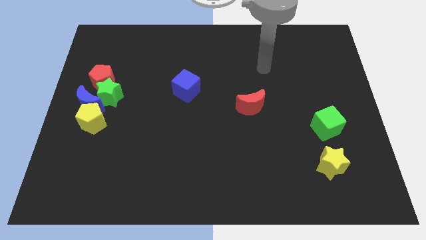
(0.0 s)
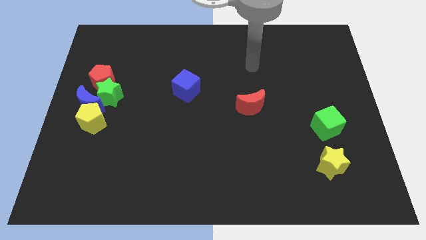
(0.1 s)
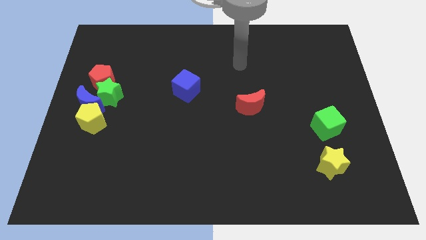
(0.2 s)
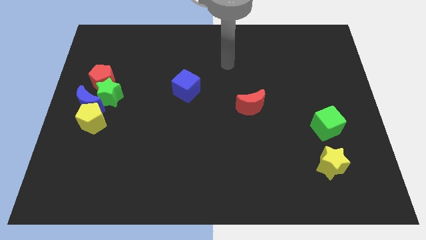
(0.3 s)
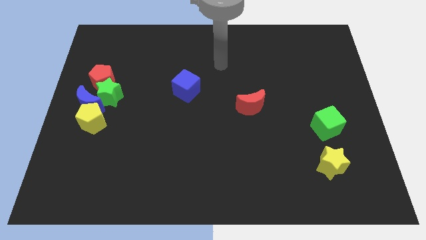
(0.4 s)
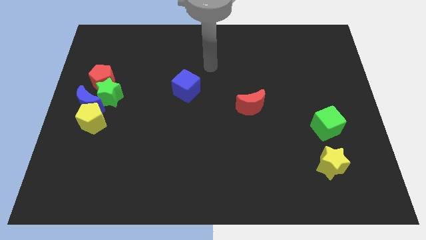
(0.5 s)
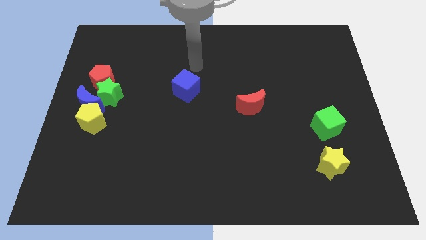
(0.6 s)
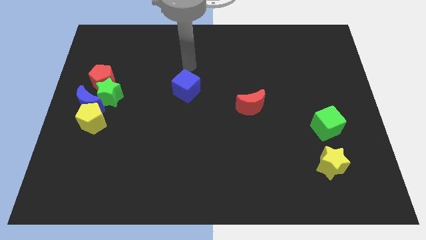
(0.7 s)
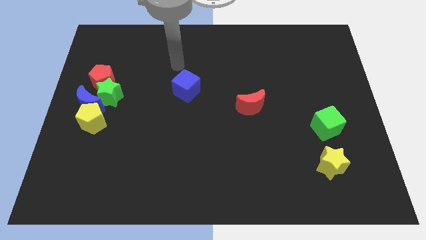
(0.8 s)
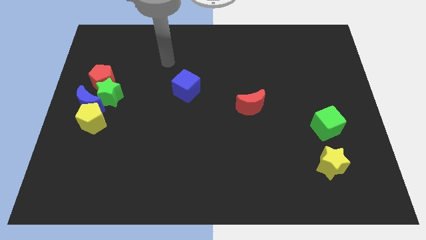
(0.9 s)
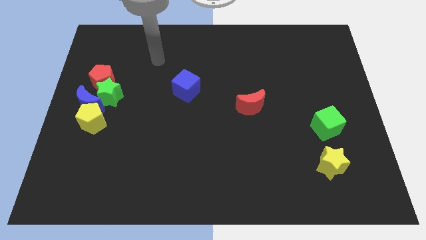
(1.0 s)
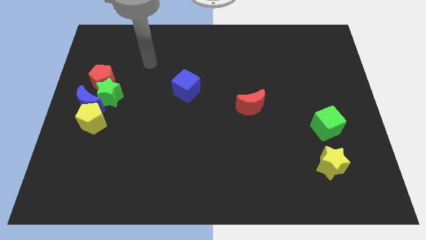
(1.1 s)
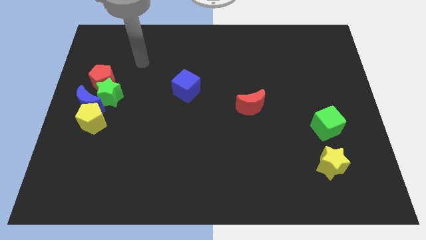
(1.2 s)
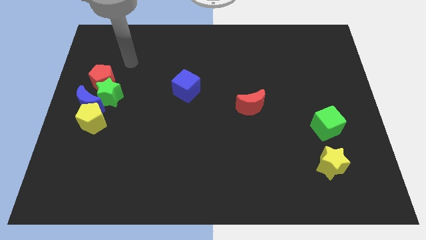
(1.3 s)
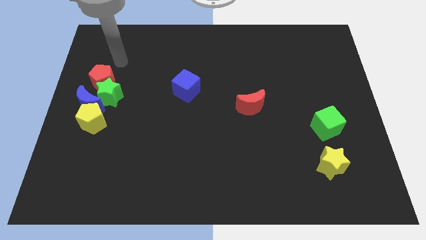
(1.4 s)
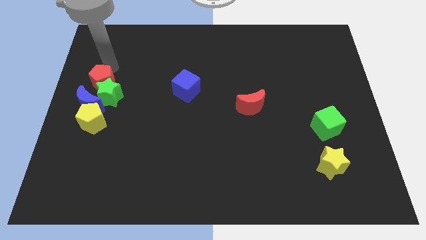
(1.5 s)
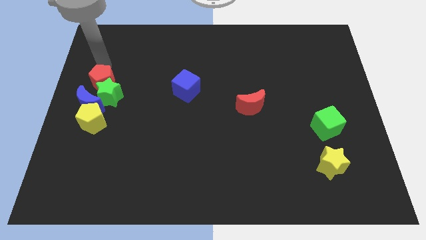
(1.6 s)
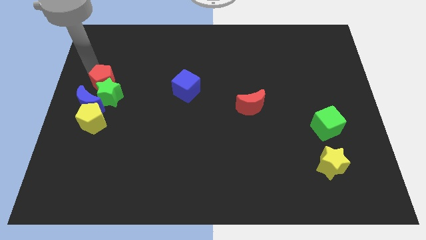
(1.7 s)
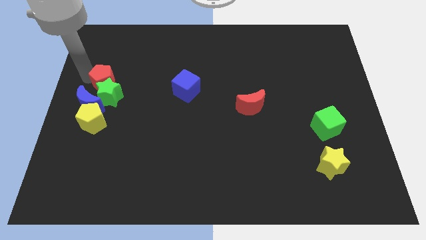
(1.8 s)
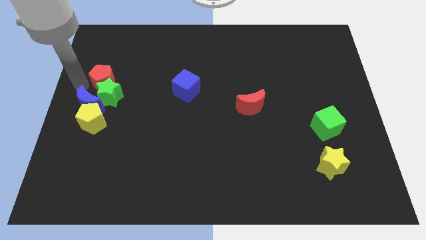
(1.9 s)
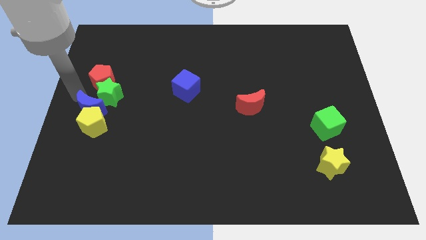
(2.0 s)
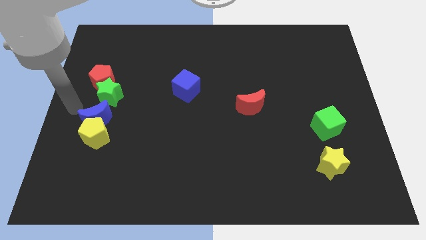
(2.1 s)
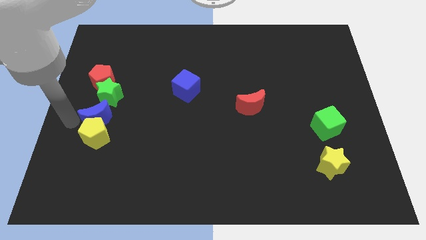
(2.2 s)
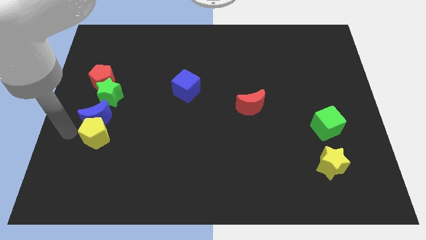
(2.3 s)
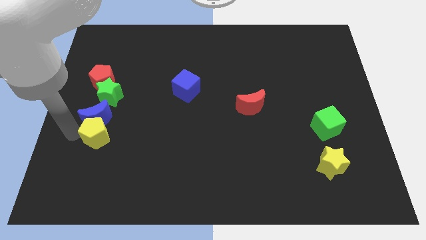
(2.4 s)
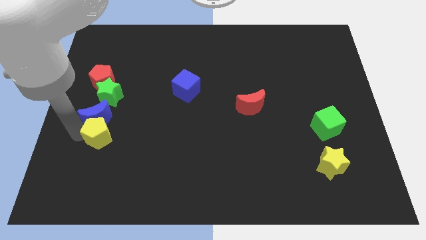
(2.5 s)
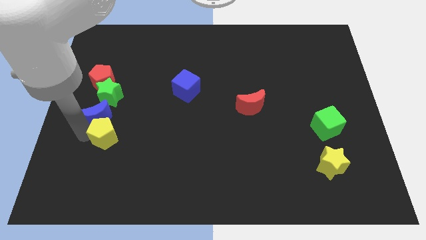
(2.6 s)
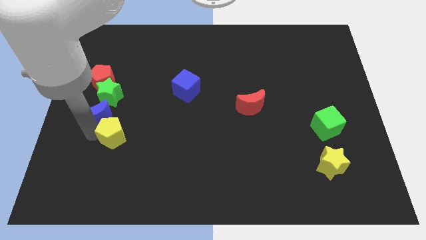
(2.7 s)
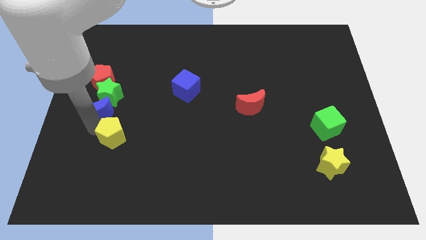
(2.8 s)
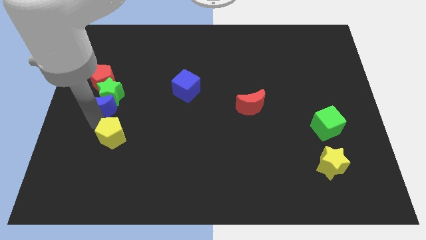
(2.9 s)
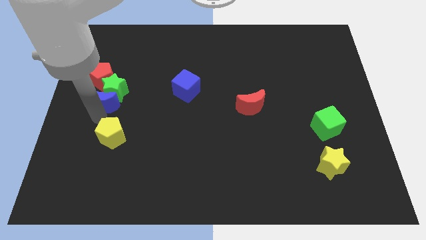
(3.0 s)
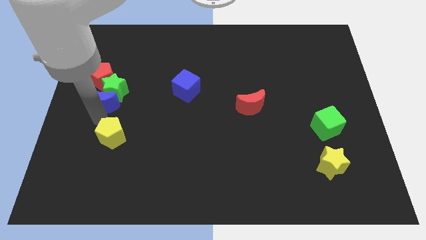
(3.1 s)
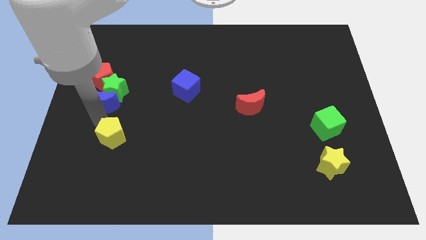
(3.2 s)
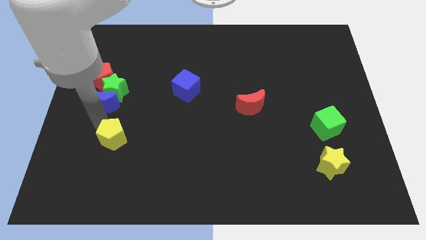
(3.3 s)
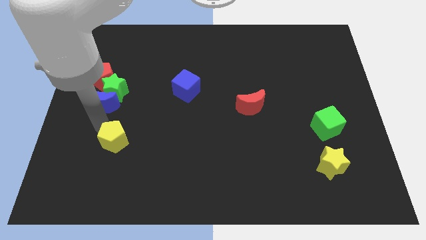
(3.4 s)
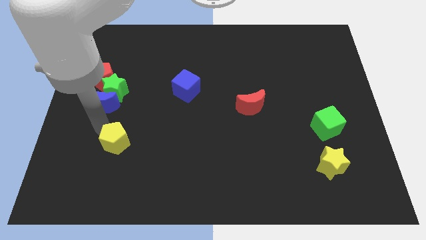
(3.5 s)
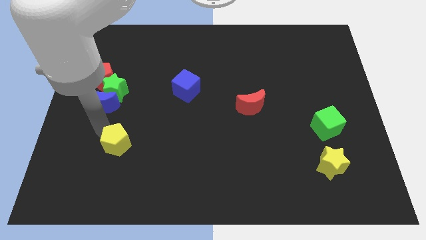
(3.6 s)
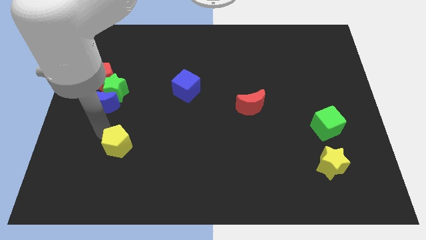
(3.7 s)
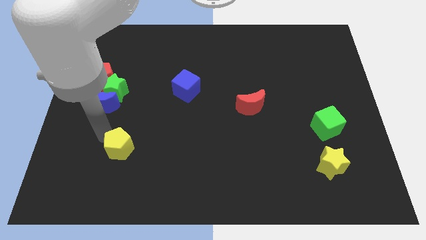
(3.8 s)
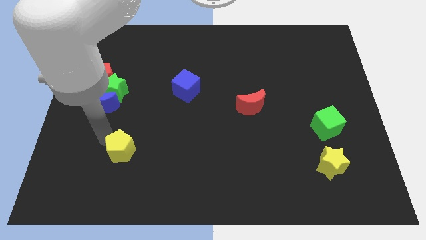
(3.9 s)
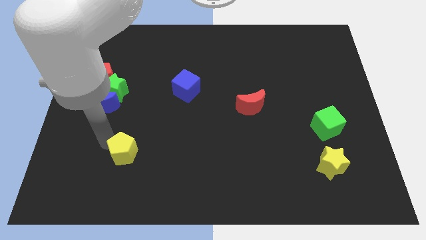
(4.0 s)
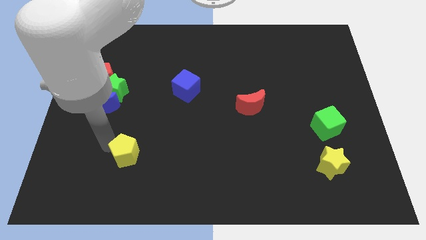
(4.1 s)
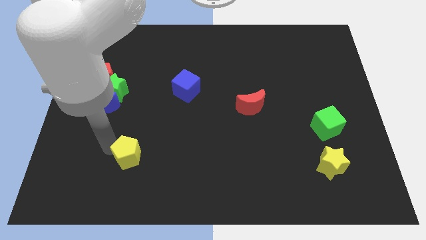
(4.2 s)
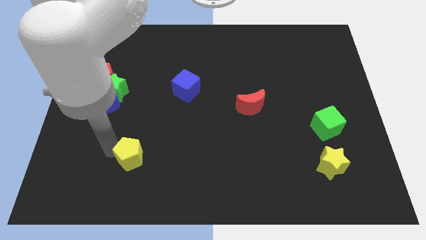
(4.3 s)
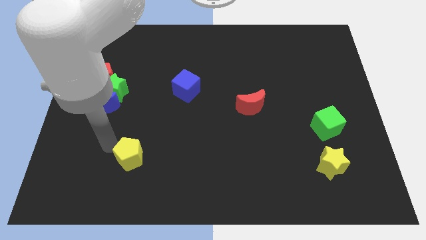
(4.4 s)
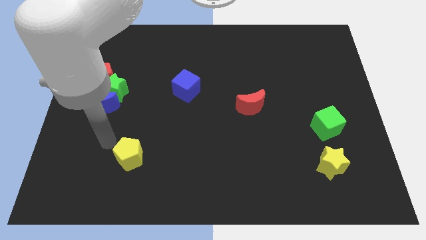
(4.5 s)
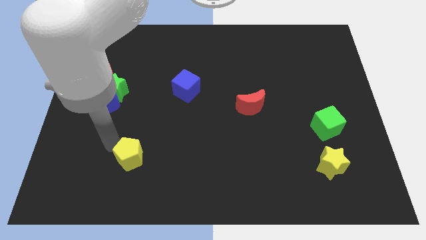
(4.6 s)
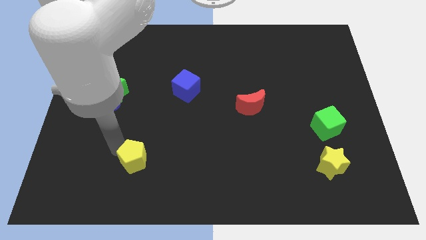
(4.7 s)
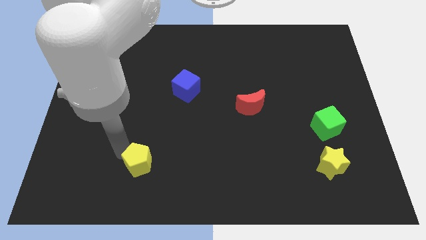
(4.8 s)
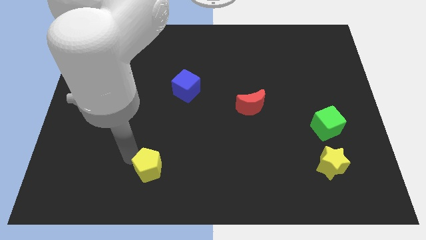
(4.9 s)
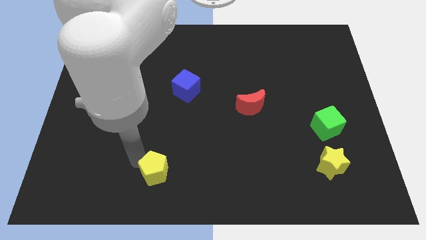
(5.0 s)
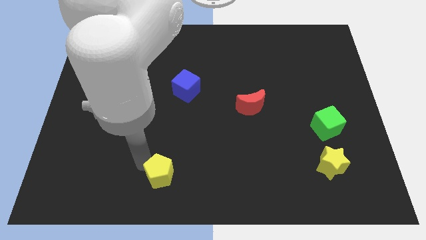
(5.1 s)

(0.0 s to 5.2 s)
put the yellow pentagon to the bottom

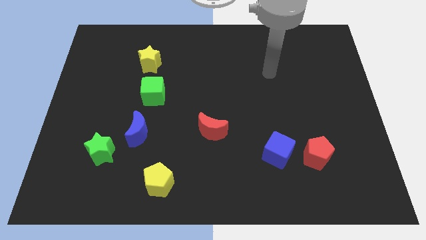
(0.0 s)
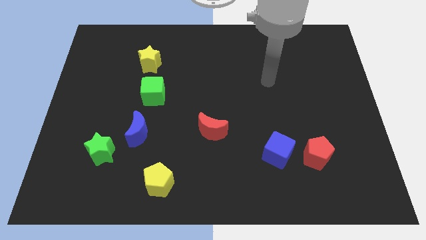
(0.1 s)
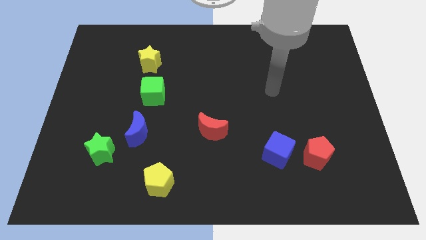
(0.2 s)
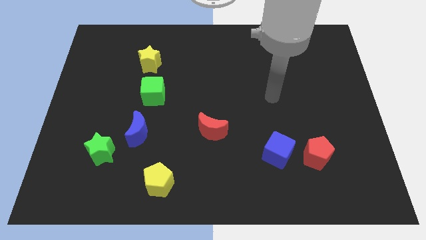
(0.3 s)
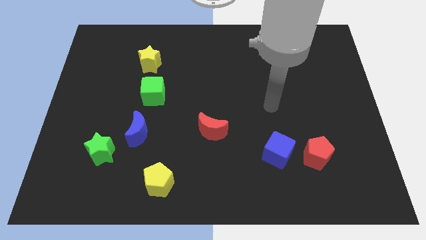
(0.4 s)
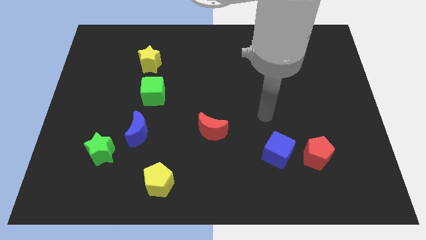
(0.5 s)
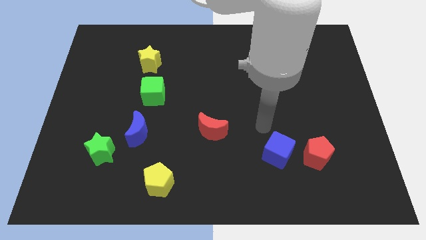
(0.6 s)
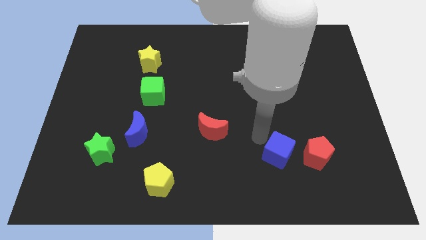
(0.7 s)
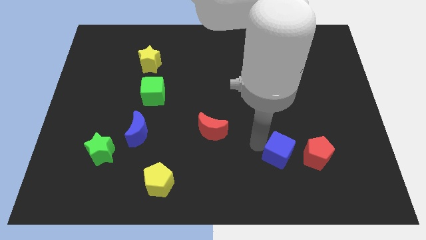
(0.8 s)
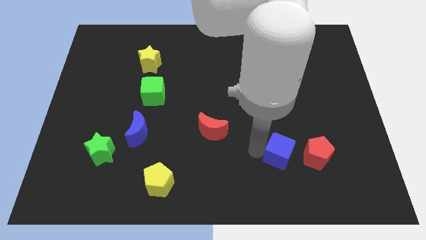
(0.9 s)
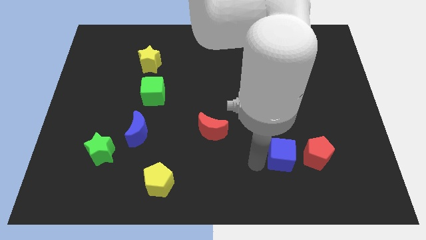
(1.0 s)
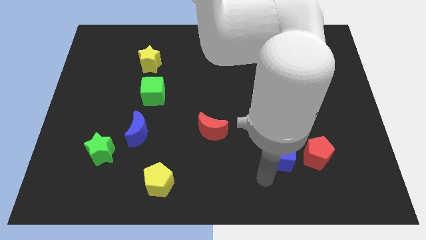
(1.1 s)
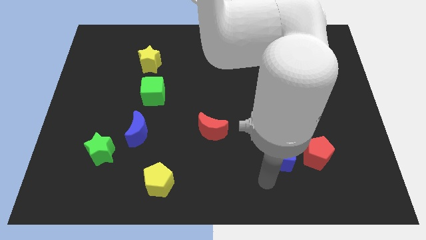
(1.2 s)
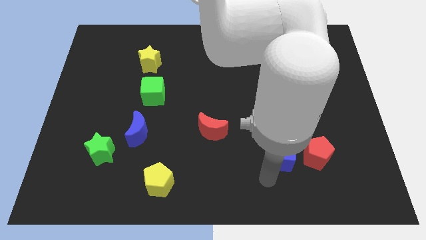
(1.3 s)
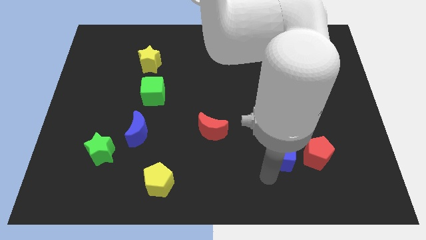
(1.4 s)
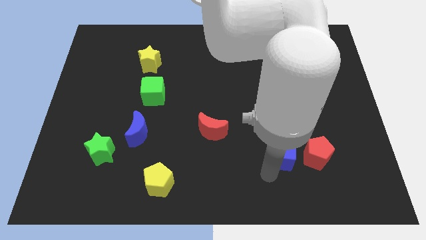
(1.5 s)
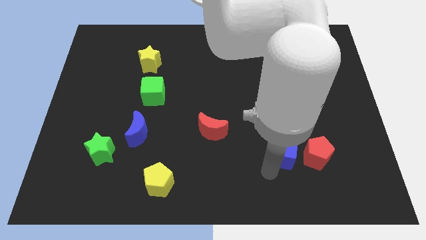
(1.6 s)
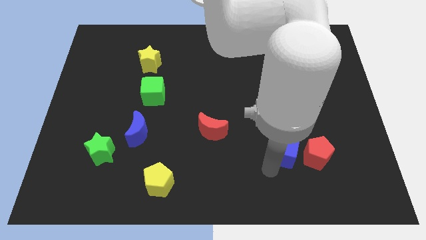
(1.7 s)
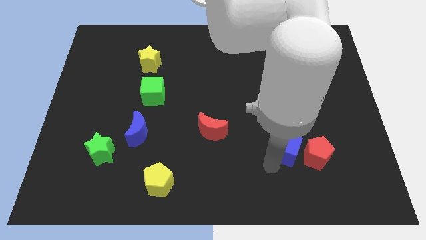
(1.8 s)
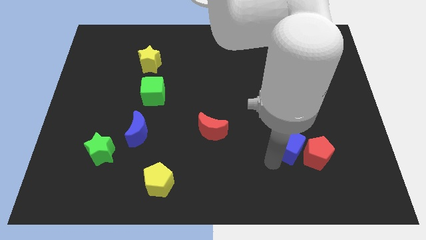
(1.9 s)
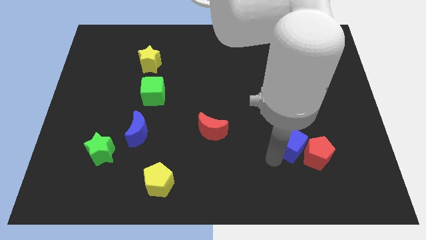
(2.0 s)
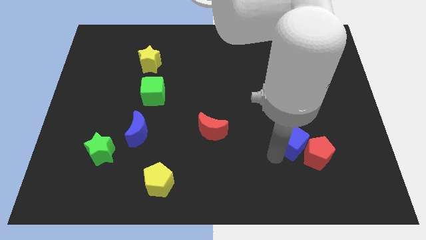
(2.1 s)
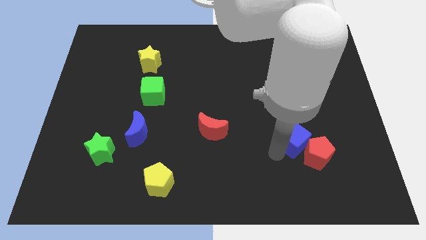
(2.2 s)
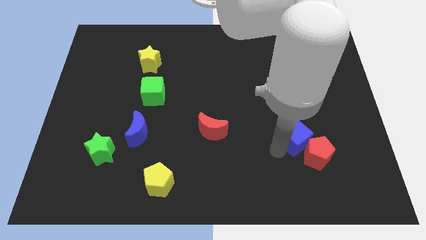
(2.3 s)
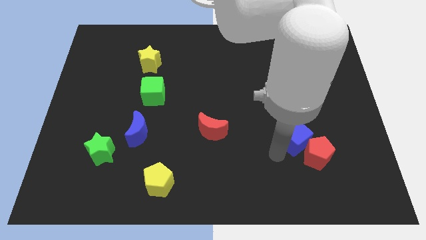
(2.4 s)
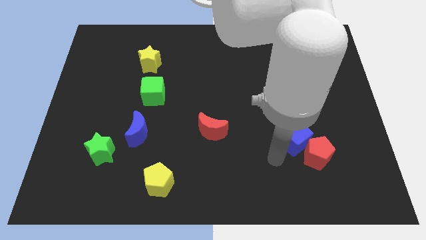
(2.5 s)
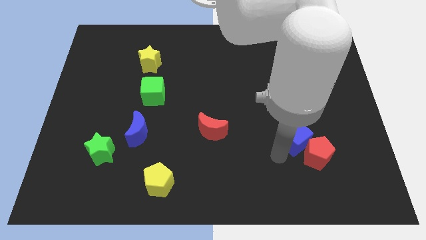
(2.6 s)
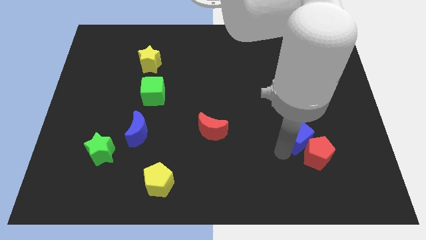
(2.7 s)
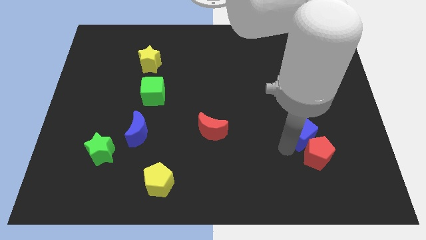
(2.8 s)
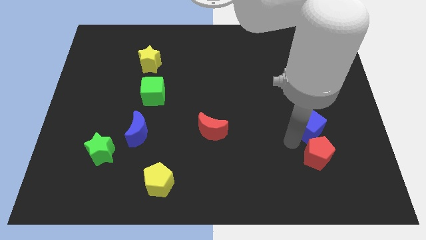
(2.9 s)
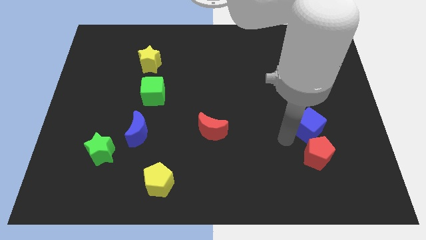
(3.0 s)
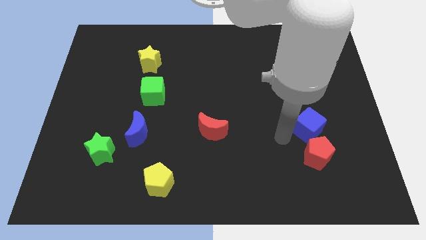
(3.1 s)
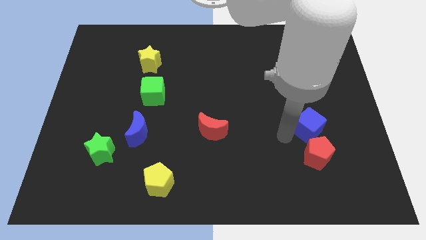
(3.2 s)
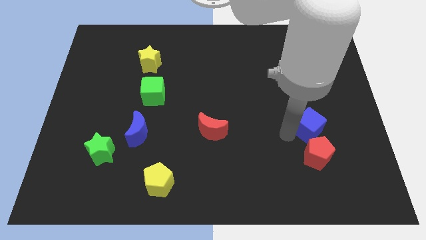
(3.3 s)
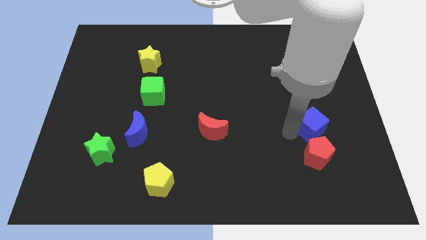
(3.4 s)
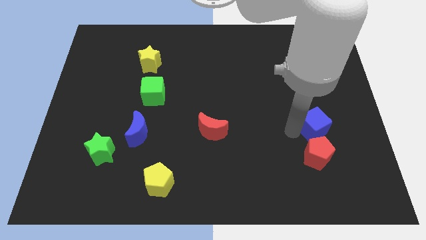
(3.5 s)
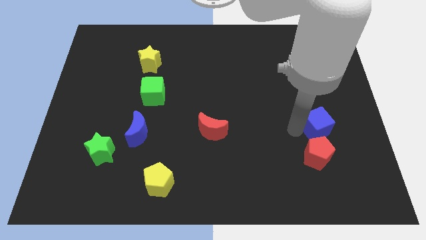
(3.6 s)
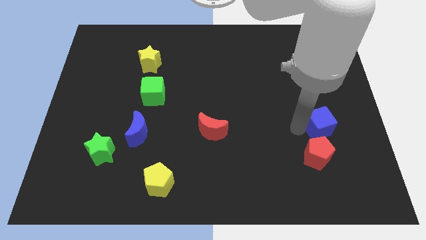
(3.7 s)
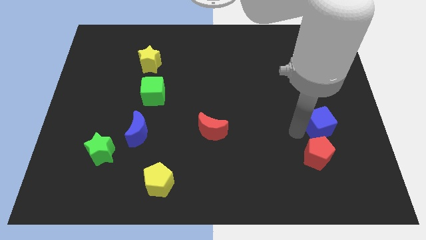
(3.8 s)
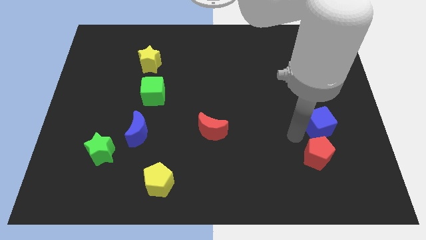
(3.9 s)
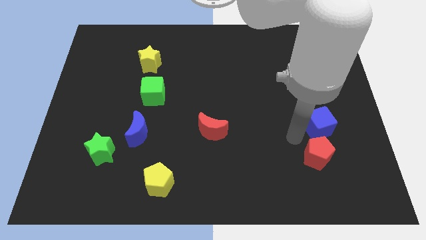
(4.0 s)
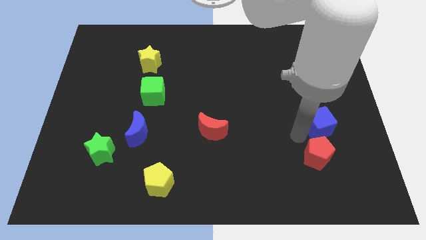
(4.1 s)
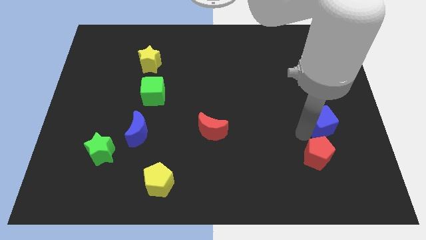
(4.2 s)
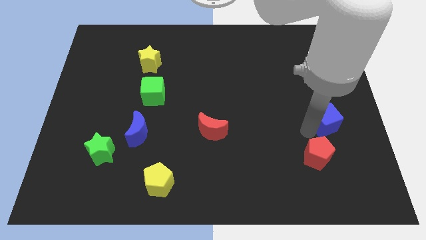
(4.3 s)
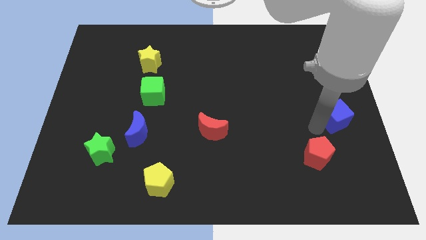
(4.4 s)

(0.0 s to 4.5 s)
push the blue cube to the center right
